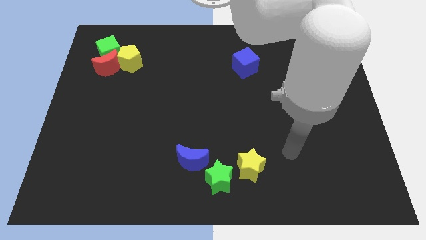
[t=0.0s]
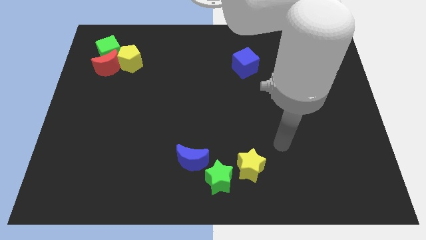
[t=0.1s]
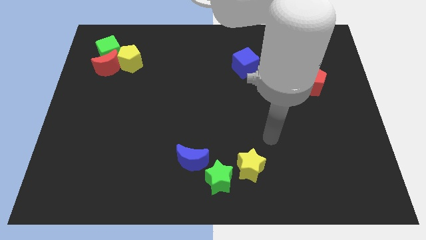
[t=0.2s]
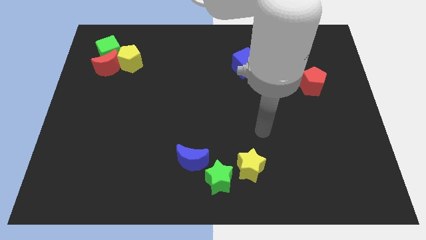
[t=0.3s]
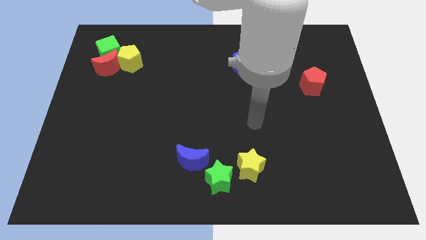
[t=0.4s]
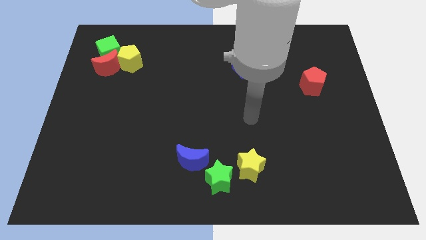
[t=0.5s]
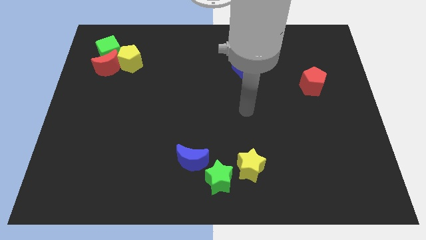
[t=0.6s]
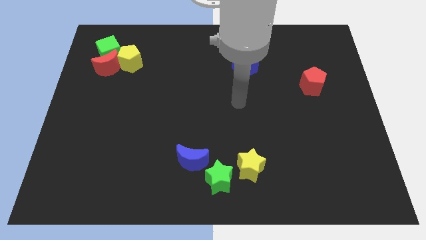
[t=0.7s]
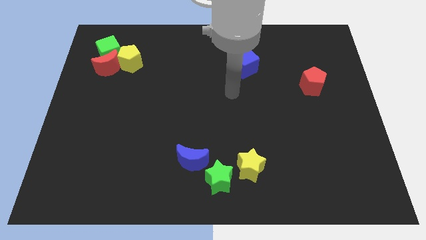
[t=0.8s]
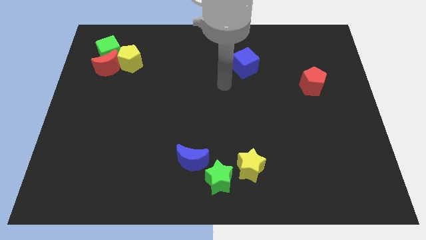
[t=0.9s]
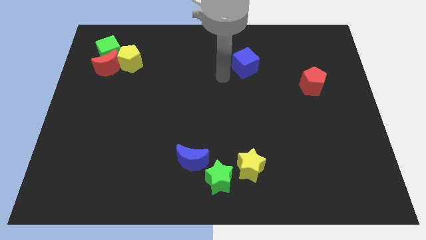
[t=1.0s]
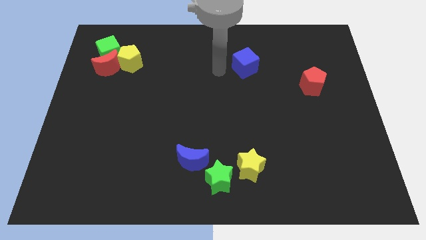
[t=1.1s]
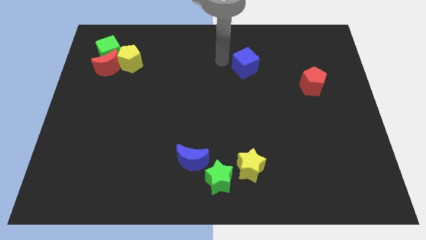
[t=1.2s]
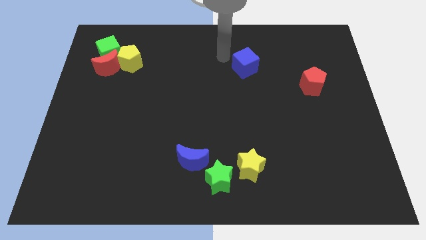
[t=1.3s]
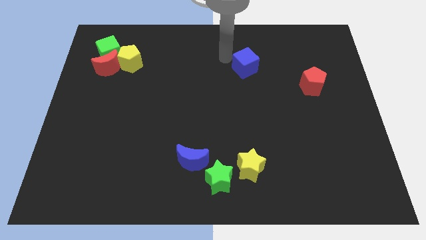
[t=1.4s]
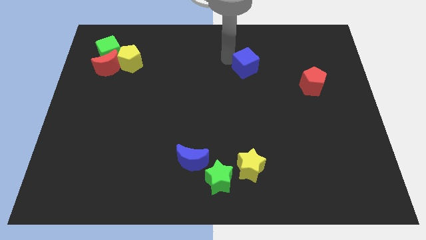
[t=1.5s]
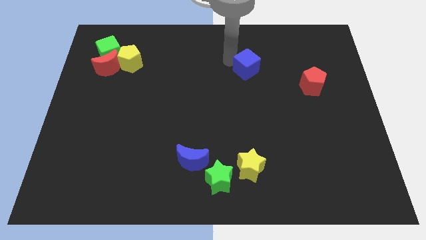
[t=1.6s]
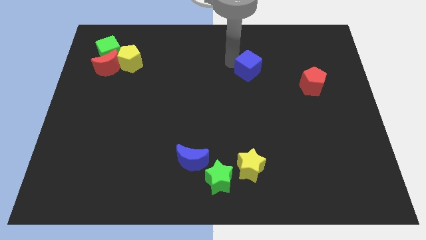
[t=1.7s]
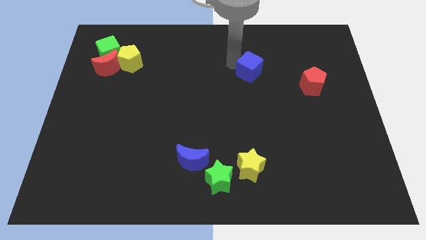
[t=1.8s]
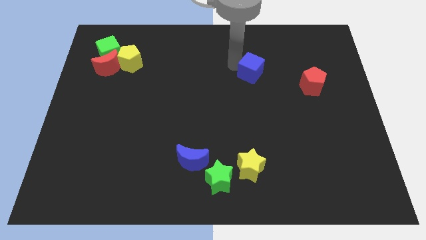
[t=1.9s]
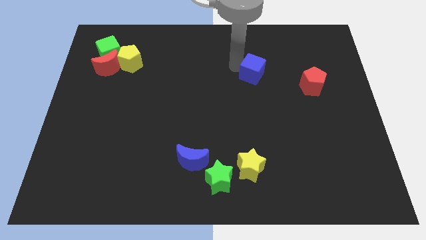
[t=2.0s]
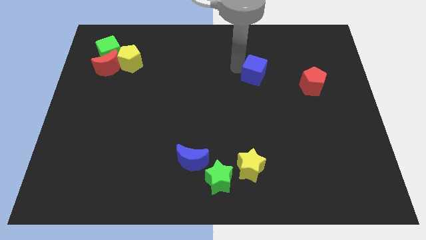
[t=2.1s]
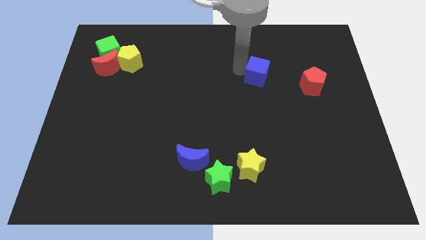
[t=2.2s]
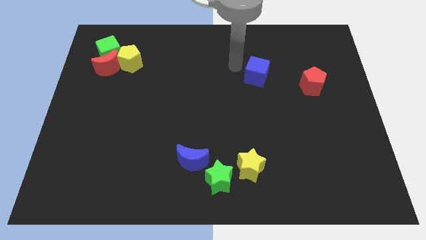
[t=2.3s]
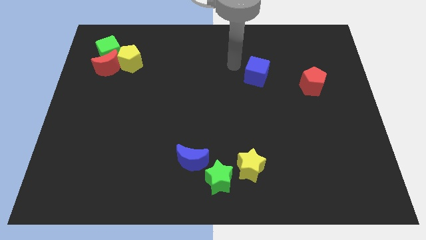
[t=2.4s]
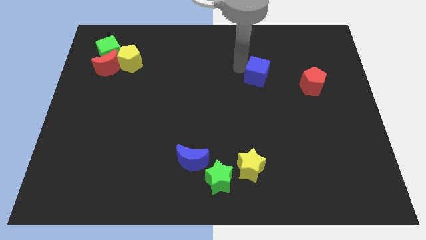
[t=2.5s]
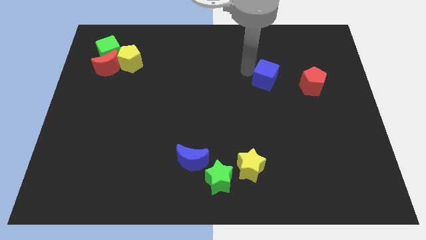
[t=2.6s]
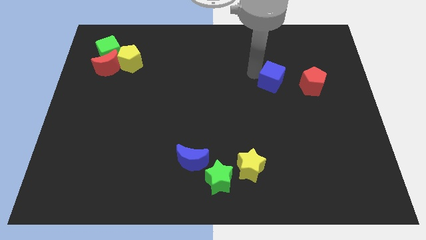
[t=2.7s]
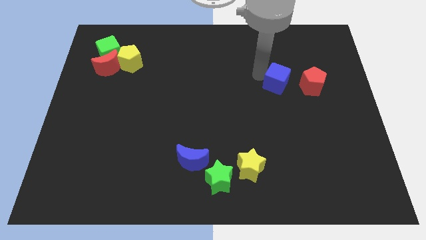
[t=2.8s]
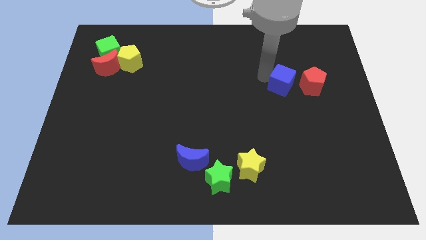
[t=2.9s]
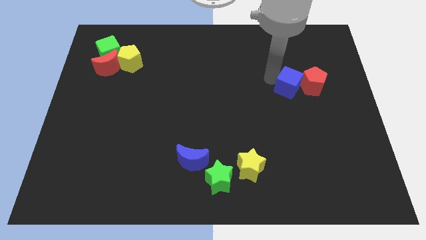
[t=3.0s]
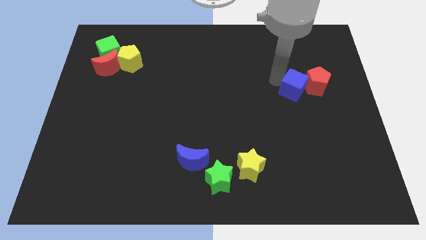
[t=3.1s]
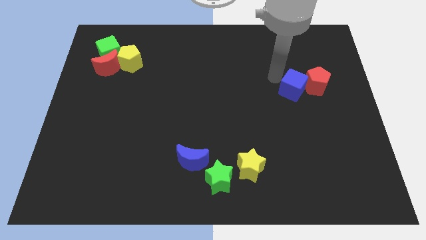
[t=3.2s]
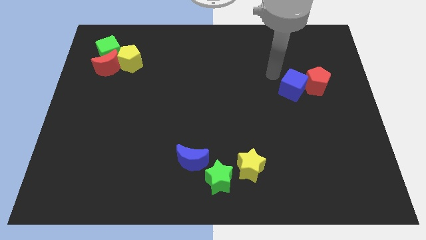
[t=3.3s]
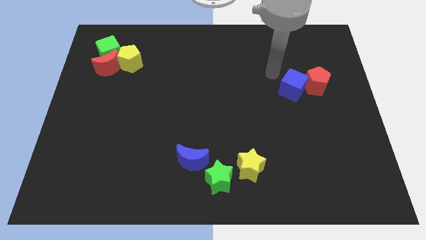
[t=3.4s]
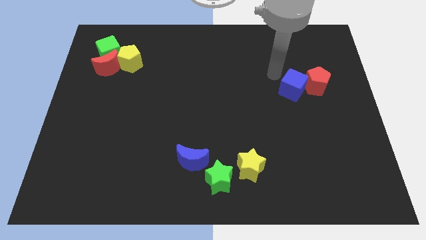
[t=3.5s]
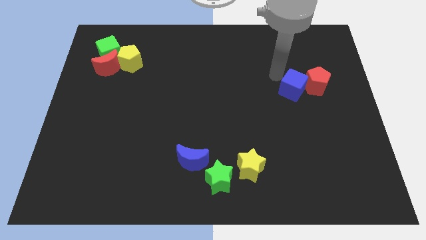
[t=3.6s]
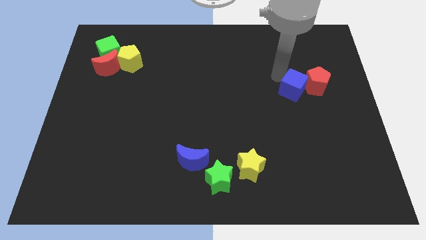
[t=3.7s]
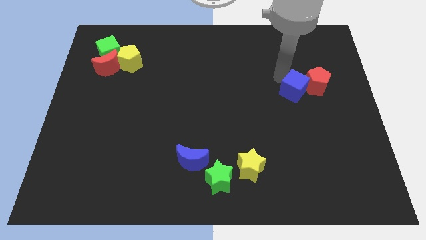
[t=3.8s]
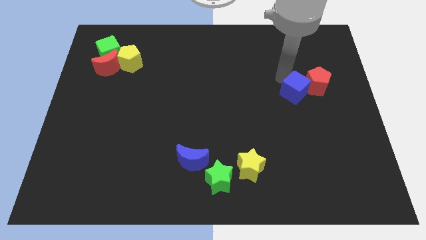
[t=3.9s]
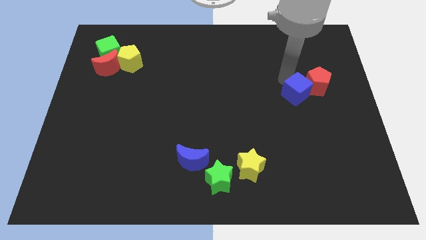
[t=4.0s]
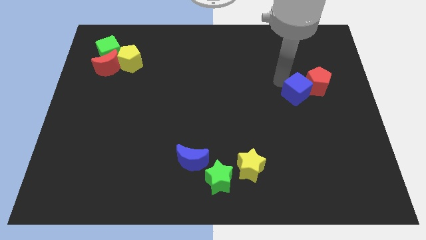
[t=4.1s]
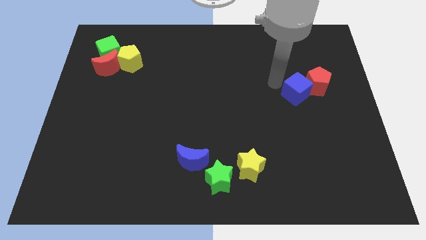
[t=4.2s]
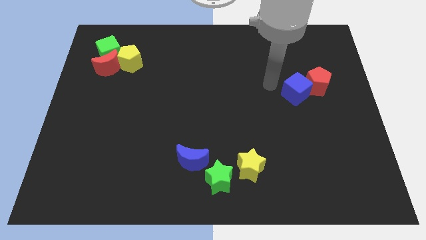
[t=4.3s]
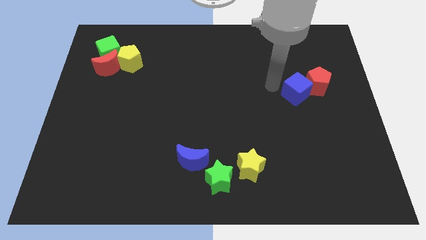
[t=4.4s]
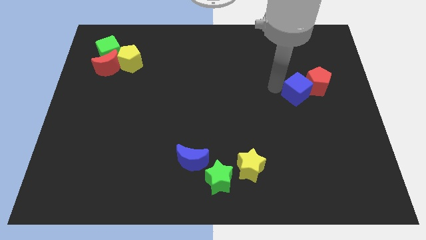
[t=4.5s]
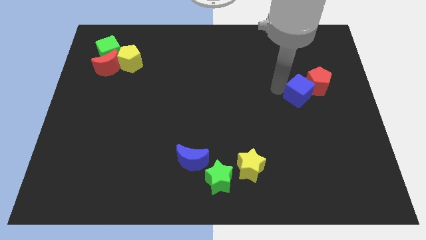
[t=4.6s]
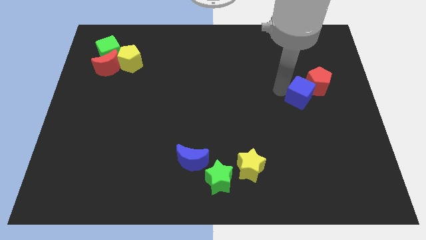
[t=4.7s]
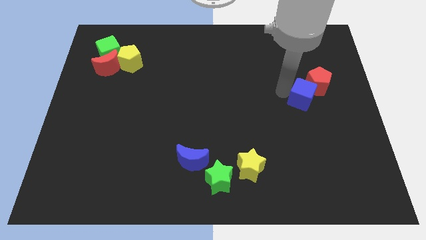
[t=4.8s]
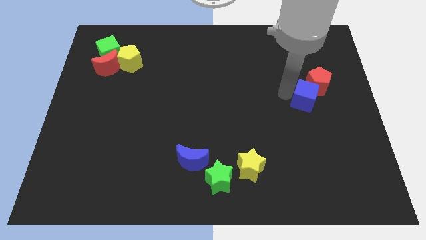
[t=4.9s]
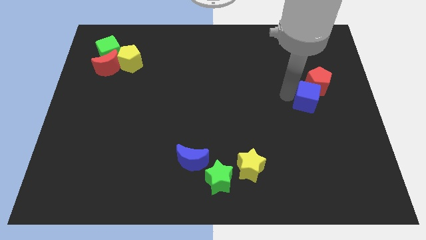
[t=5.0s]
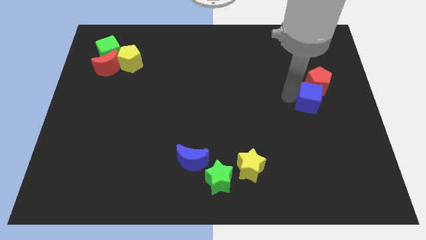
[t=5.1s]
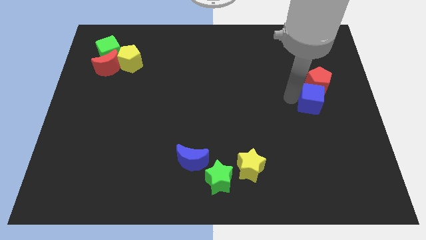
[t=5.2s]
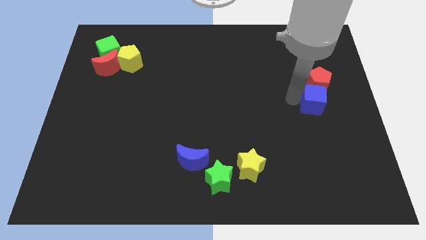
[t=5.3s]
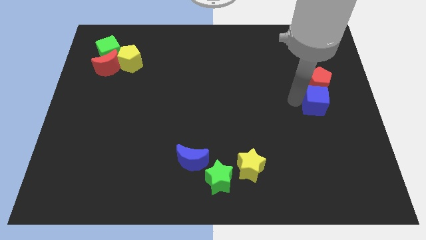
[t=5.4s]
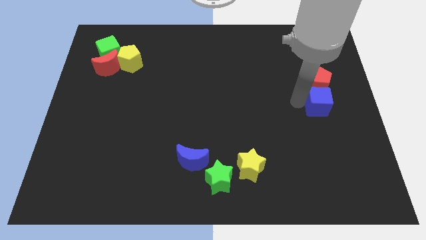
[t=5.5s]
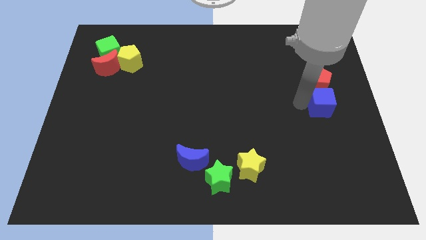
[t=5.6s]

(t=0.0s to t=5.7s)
put the blue cube to the right side
